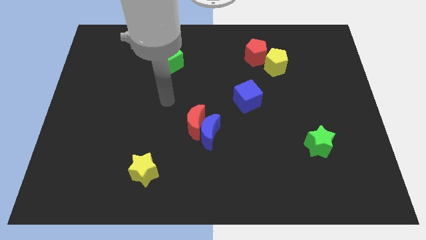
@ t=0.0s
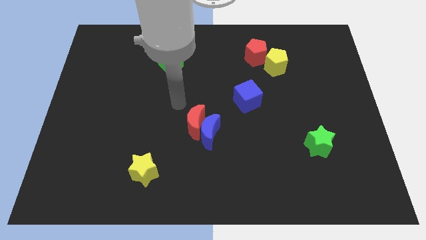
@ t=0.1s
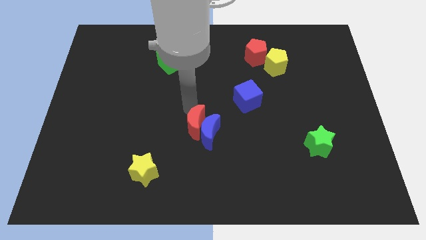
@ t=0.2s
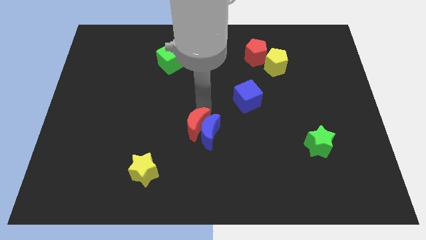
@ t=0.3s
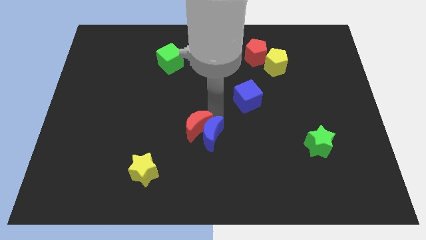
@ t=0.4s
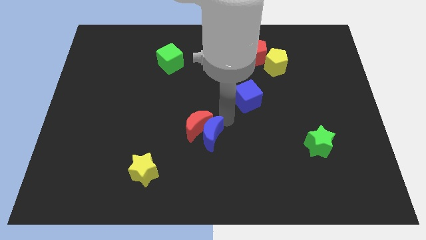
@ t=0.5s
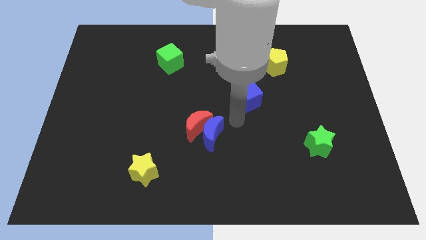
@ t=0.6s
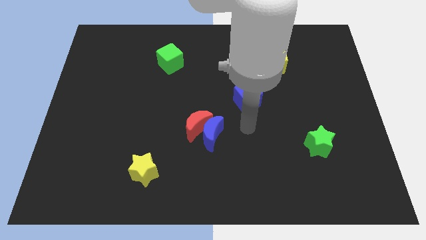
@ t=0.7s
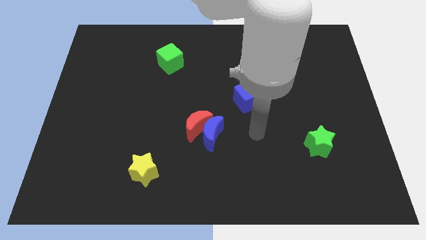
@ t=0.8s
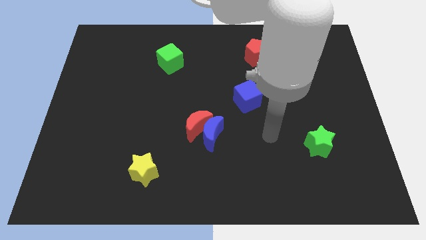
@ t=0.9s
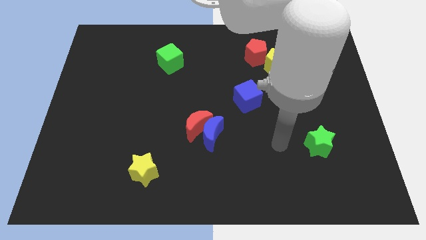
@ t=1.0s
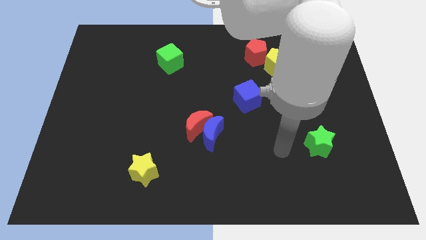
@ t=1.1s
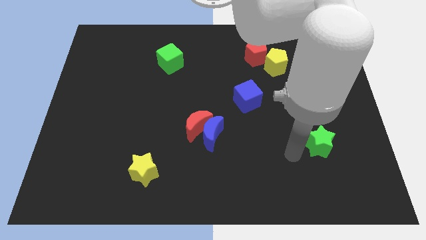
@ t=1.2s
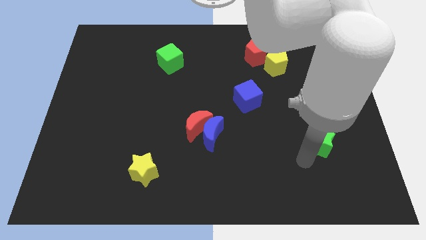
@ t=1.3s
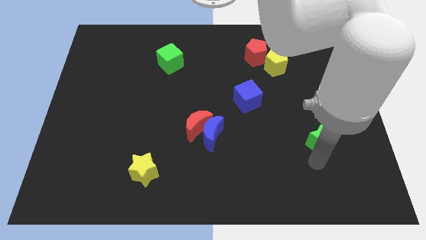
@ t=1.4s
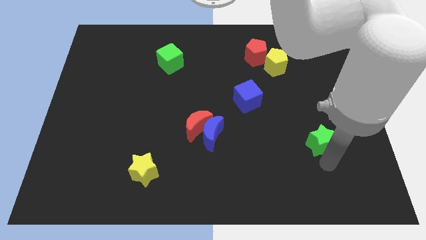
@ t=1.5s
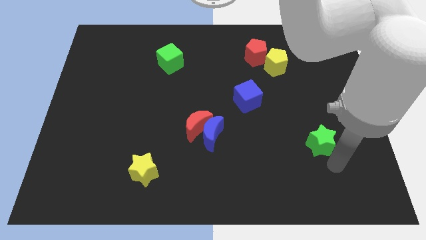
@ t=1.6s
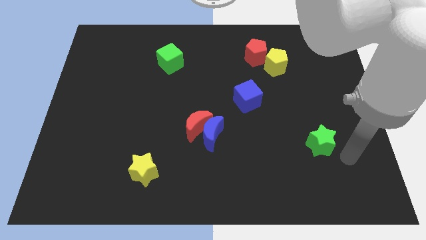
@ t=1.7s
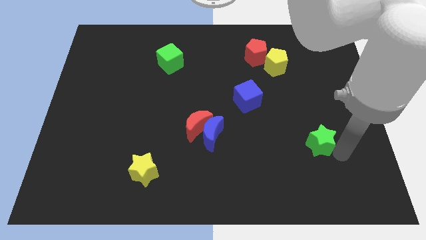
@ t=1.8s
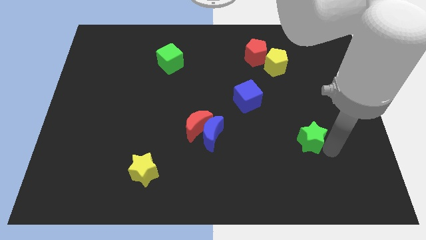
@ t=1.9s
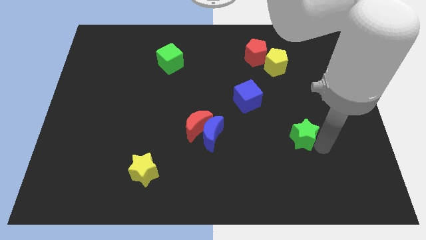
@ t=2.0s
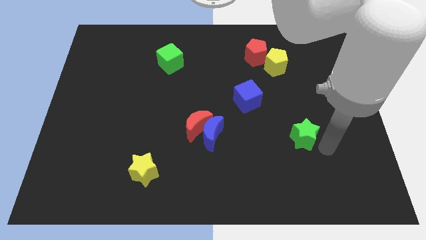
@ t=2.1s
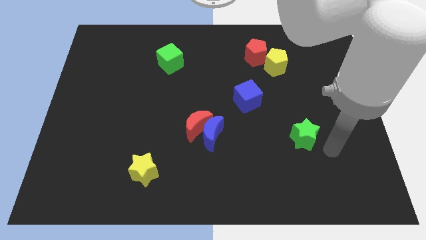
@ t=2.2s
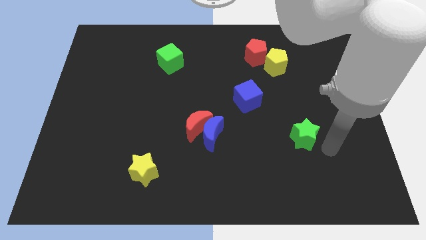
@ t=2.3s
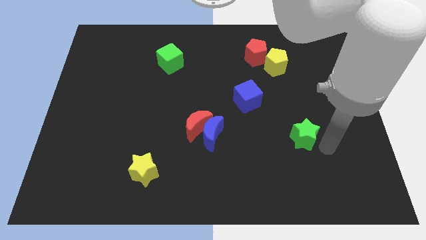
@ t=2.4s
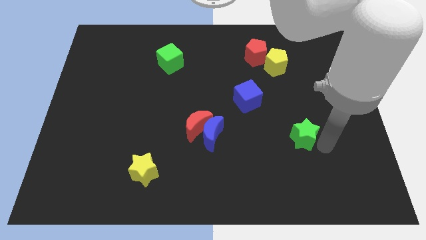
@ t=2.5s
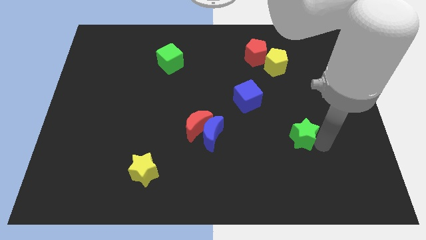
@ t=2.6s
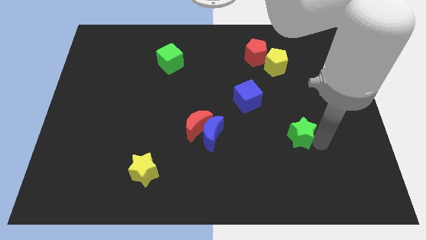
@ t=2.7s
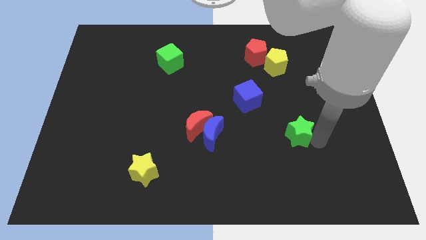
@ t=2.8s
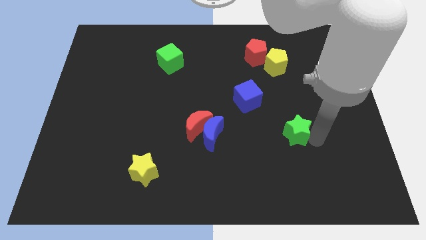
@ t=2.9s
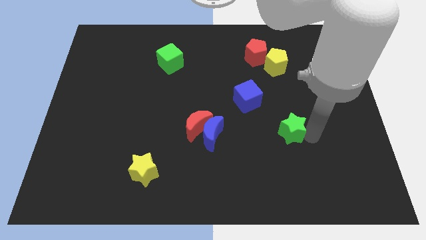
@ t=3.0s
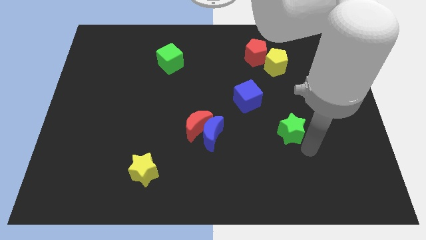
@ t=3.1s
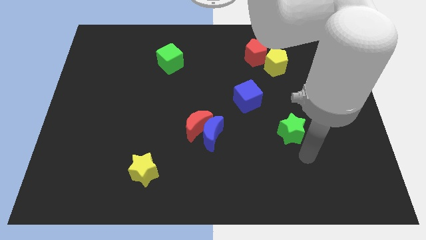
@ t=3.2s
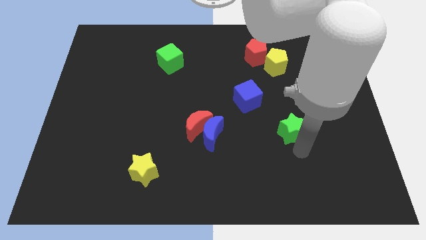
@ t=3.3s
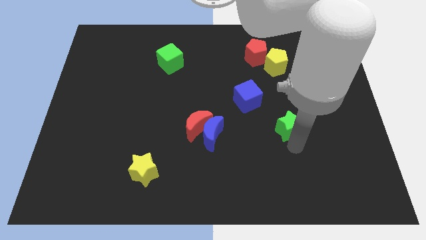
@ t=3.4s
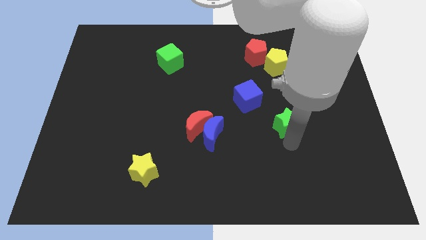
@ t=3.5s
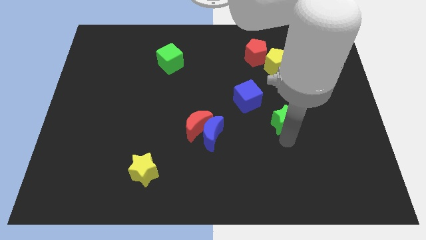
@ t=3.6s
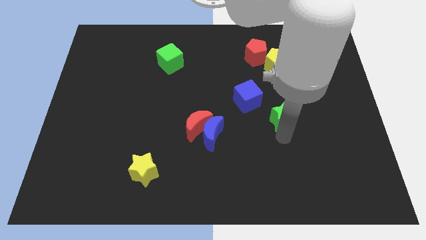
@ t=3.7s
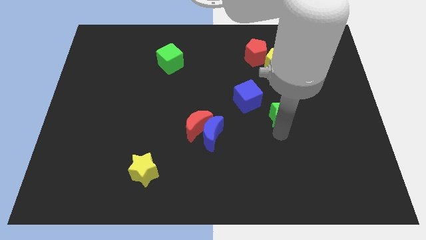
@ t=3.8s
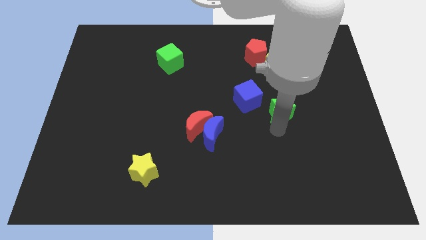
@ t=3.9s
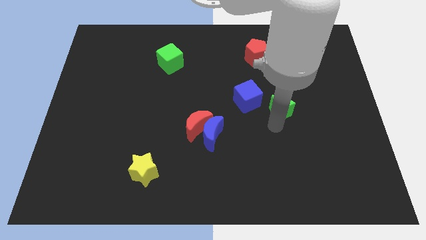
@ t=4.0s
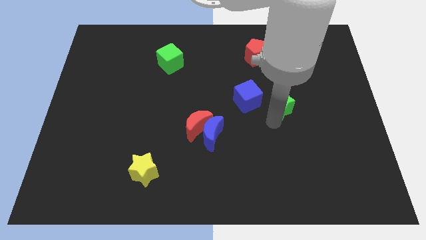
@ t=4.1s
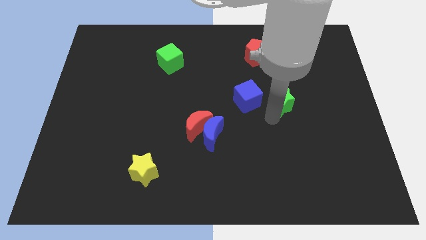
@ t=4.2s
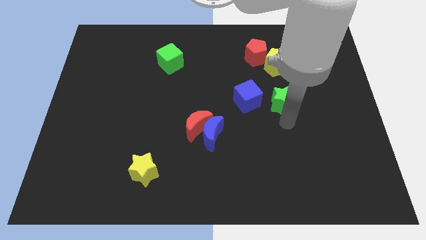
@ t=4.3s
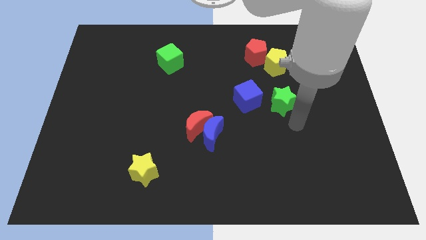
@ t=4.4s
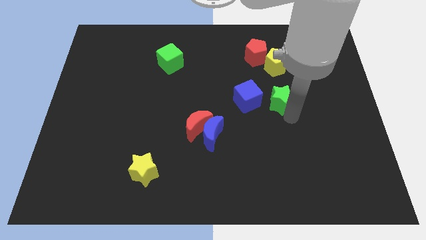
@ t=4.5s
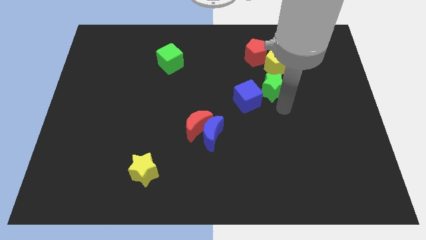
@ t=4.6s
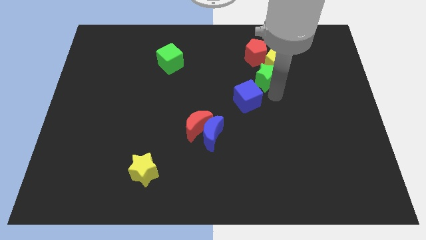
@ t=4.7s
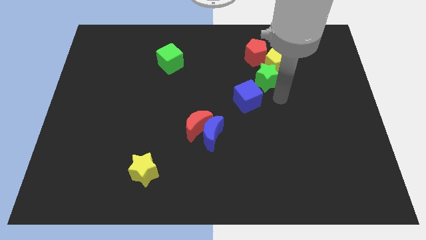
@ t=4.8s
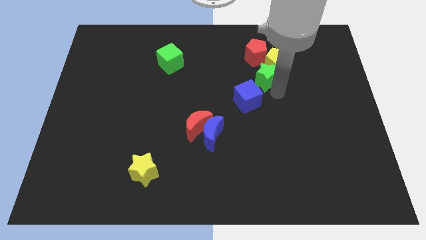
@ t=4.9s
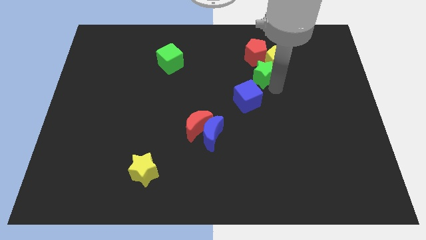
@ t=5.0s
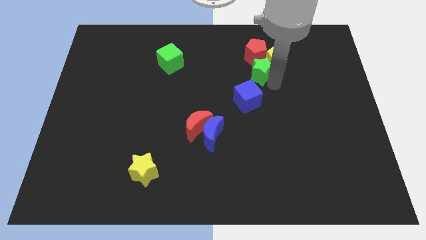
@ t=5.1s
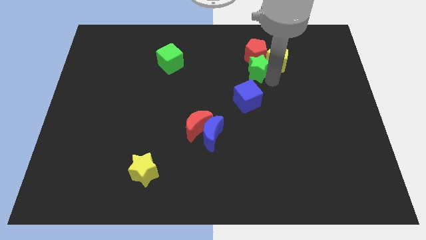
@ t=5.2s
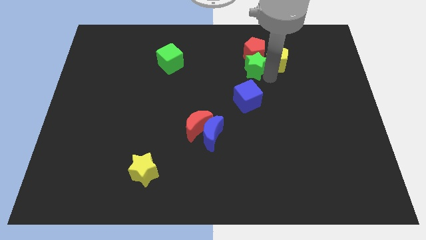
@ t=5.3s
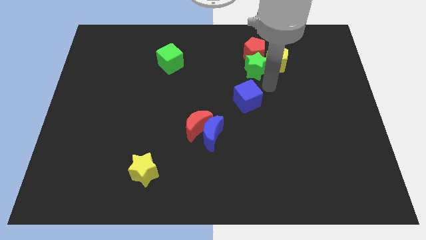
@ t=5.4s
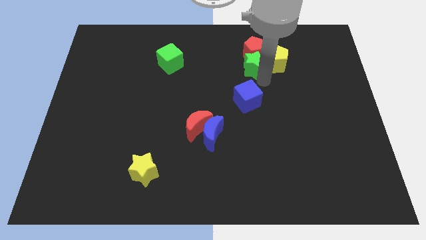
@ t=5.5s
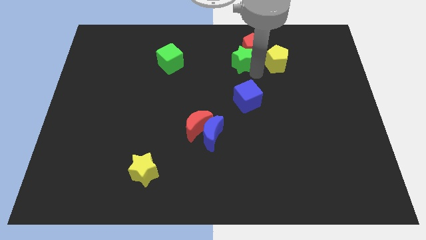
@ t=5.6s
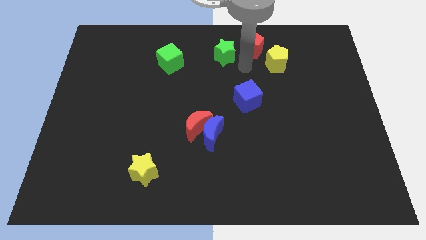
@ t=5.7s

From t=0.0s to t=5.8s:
put the green star to the top side
